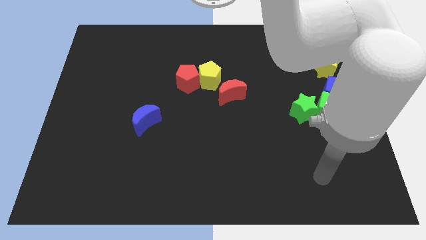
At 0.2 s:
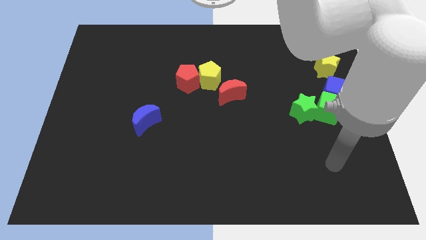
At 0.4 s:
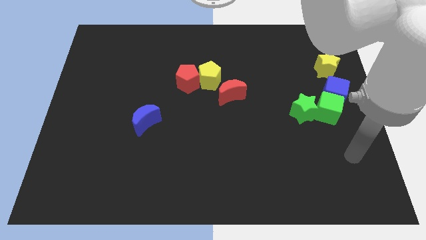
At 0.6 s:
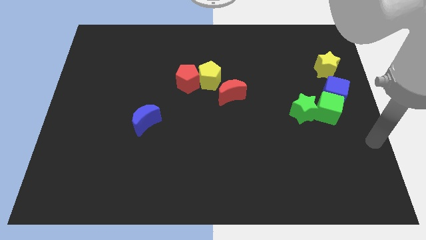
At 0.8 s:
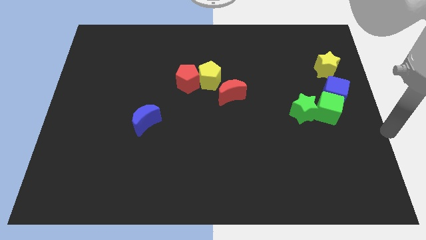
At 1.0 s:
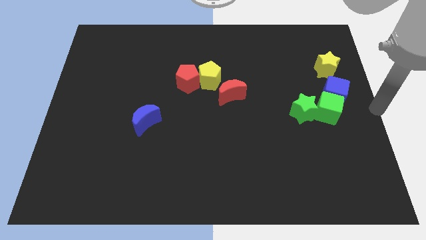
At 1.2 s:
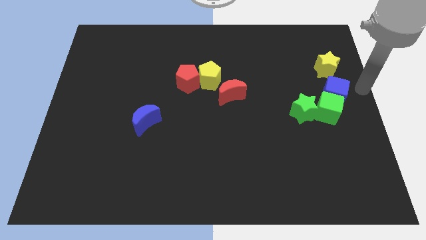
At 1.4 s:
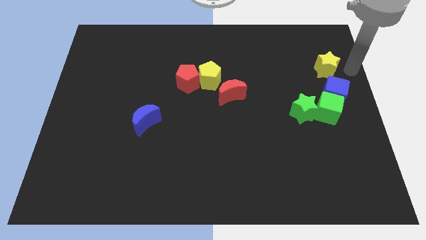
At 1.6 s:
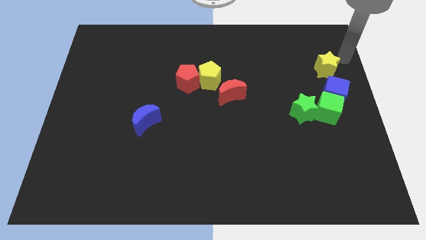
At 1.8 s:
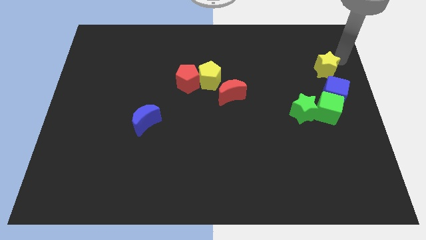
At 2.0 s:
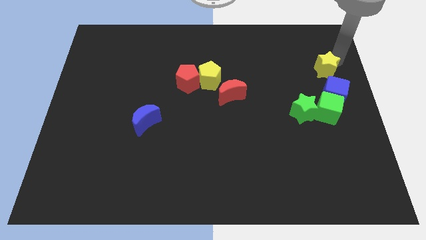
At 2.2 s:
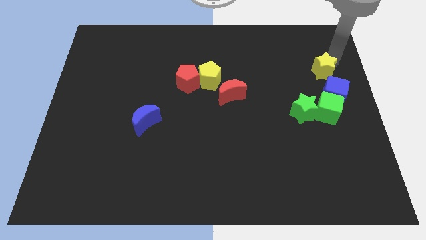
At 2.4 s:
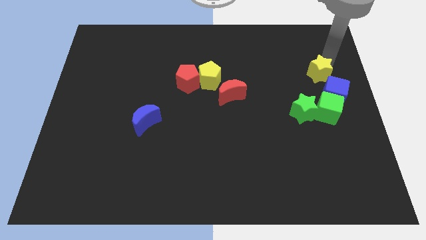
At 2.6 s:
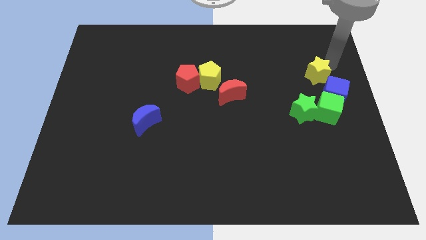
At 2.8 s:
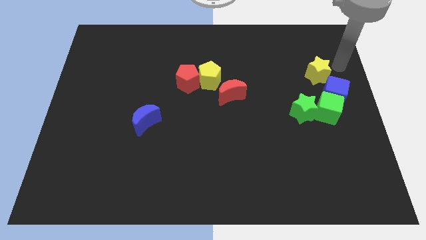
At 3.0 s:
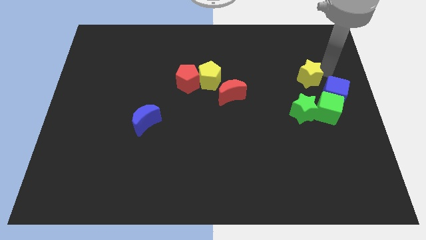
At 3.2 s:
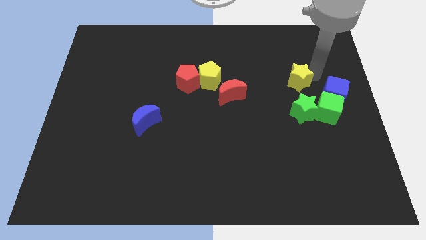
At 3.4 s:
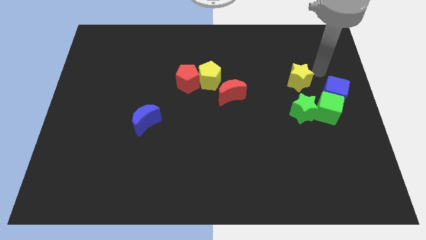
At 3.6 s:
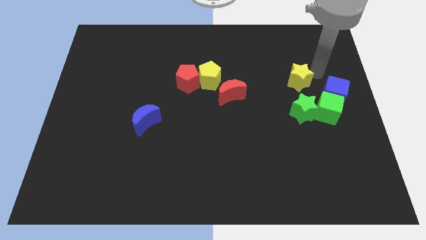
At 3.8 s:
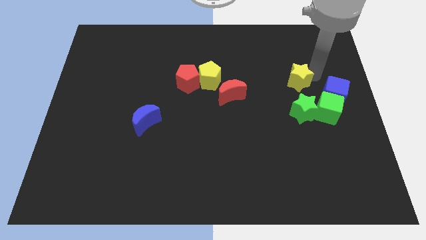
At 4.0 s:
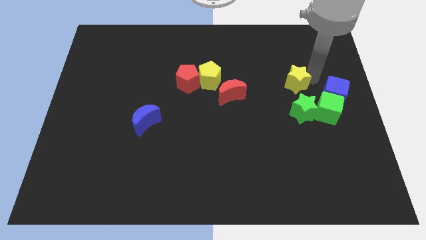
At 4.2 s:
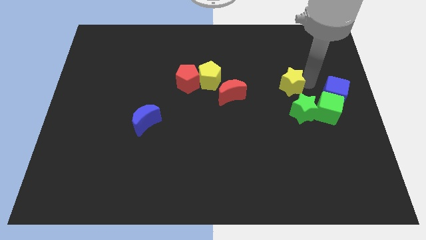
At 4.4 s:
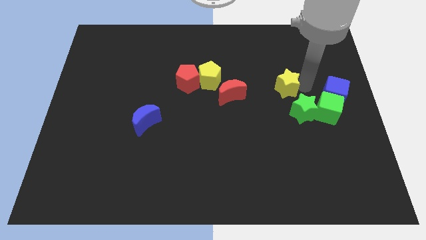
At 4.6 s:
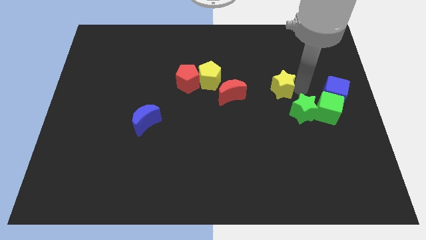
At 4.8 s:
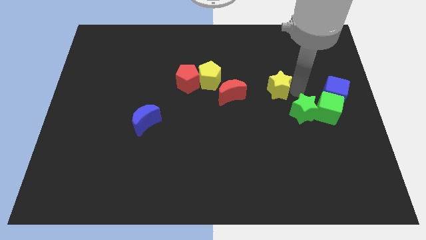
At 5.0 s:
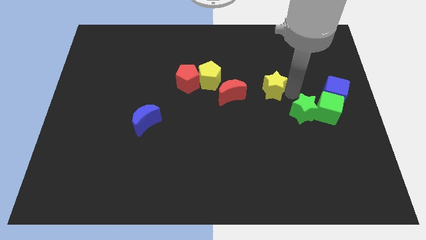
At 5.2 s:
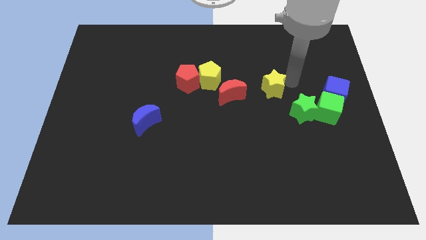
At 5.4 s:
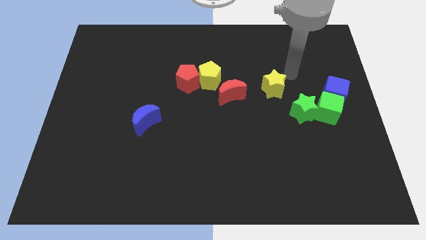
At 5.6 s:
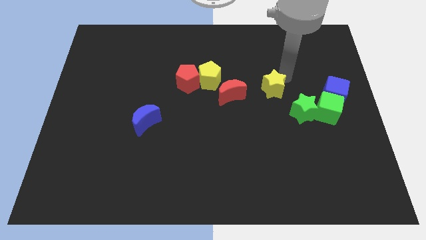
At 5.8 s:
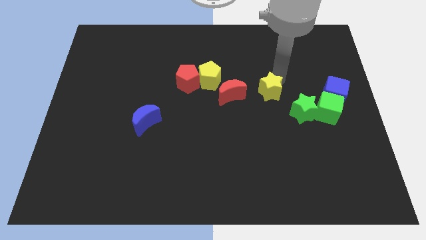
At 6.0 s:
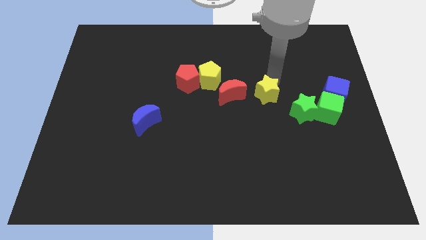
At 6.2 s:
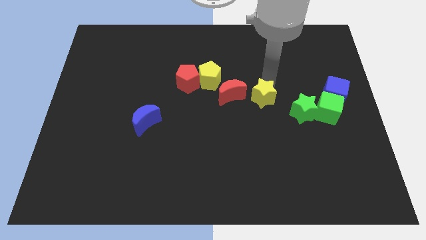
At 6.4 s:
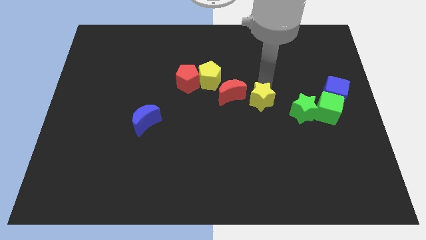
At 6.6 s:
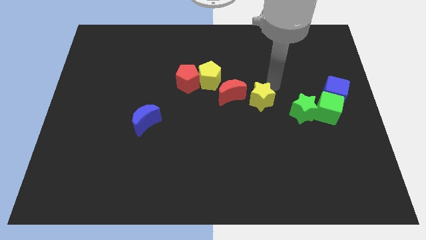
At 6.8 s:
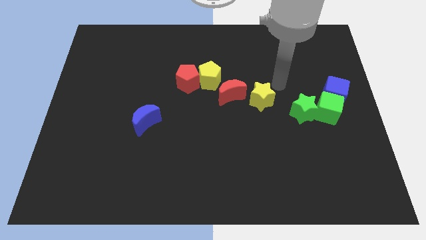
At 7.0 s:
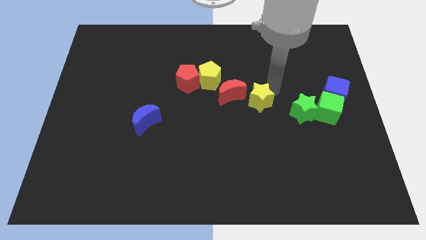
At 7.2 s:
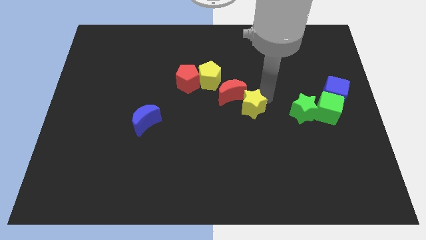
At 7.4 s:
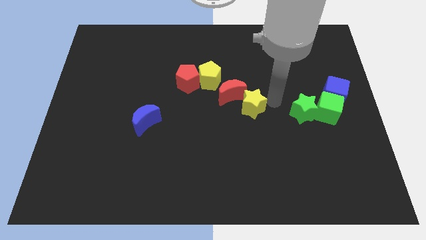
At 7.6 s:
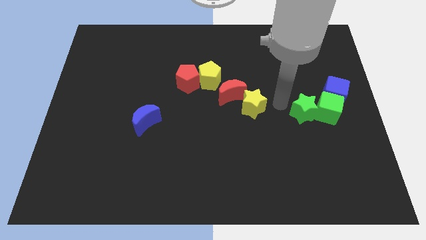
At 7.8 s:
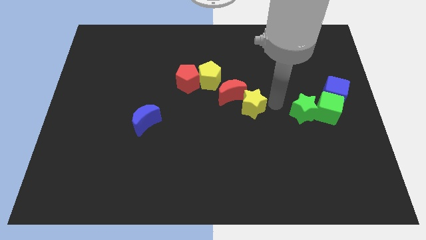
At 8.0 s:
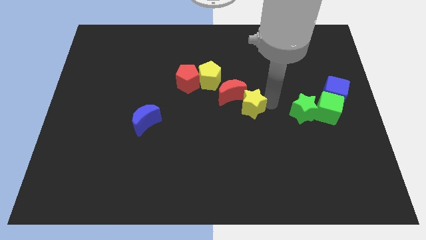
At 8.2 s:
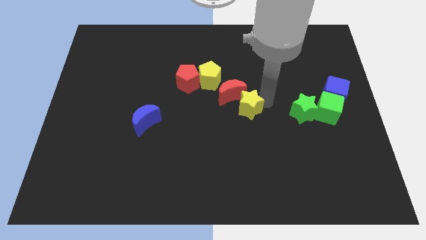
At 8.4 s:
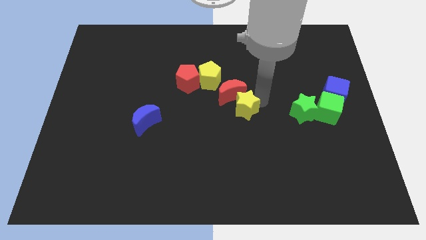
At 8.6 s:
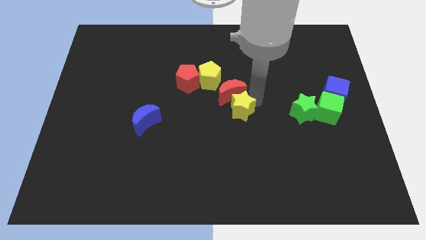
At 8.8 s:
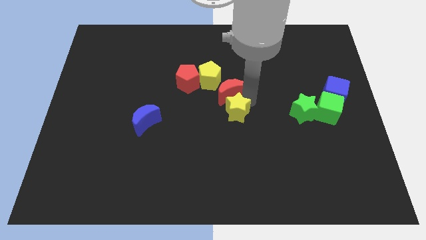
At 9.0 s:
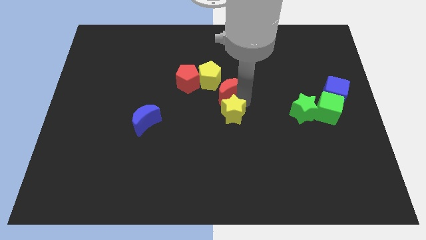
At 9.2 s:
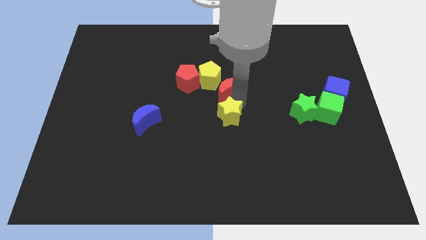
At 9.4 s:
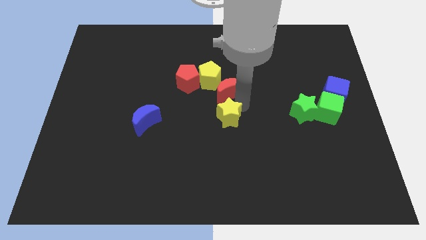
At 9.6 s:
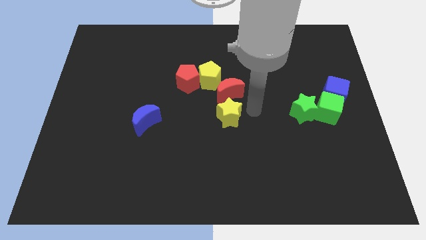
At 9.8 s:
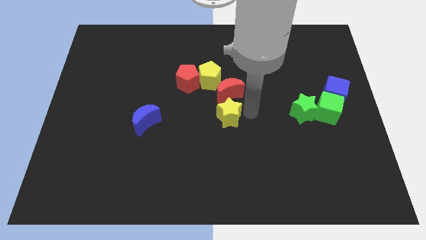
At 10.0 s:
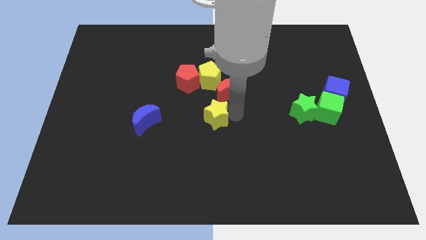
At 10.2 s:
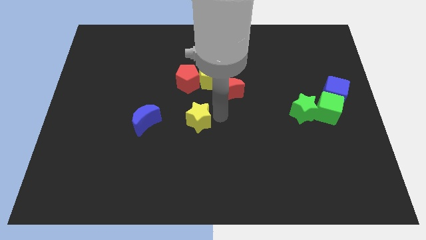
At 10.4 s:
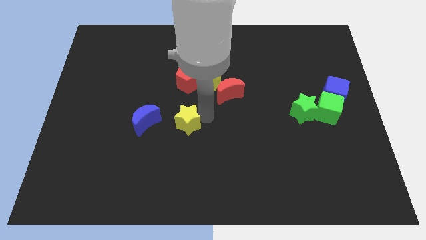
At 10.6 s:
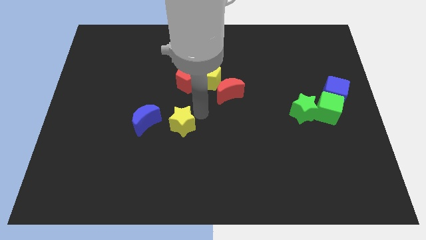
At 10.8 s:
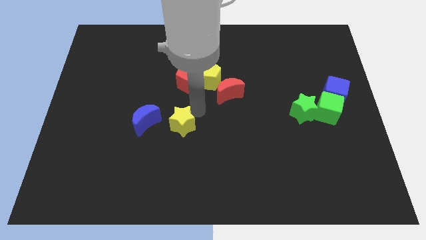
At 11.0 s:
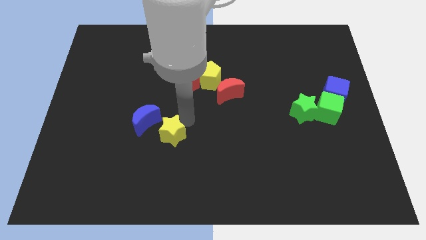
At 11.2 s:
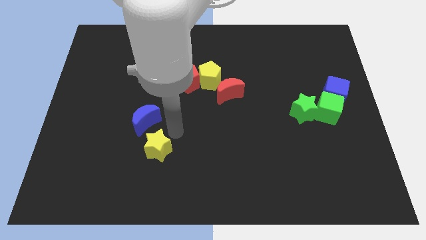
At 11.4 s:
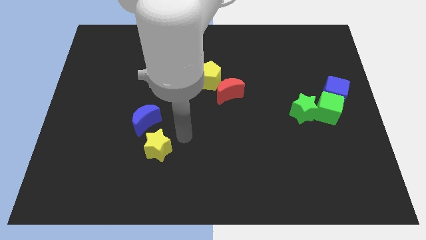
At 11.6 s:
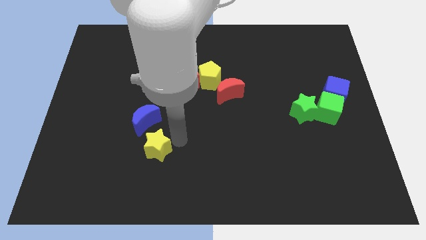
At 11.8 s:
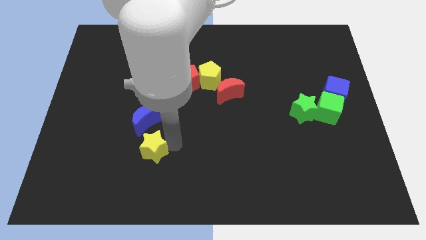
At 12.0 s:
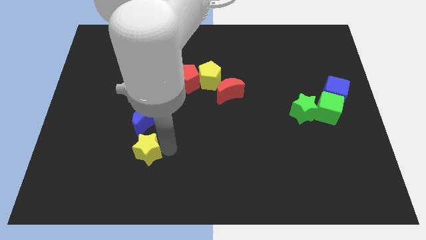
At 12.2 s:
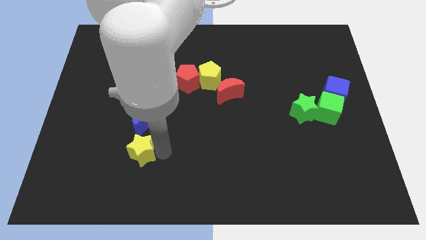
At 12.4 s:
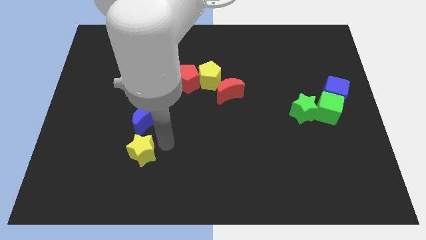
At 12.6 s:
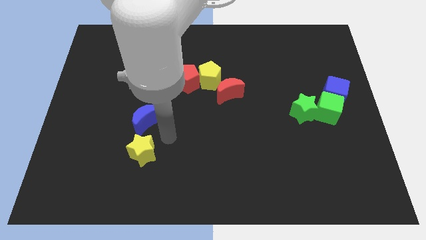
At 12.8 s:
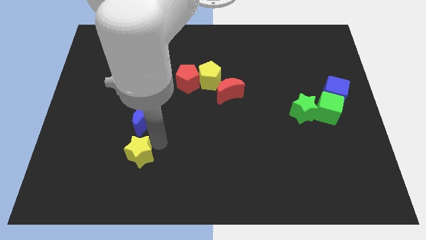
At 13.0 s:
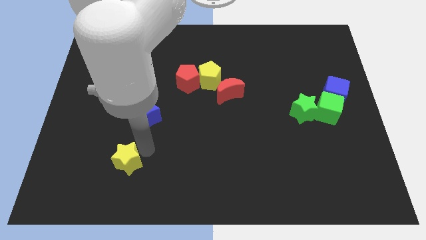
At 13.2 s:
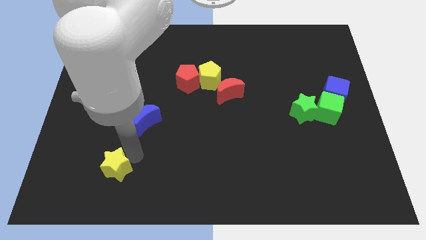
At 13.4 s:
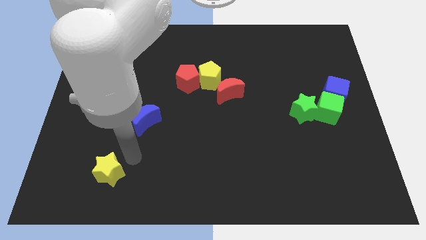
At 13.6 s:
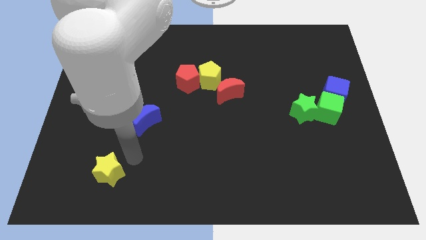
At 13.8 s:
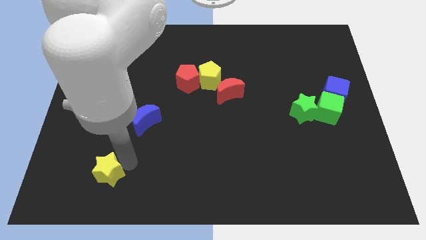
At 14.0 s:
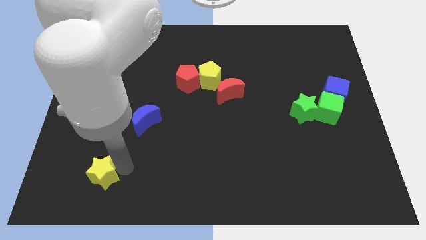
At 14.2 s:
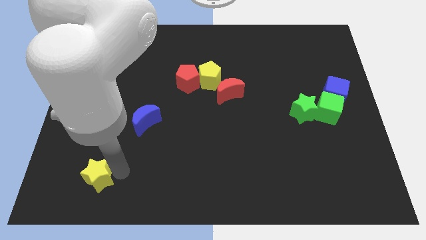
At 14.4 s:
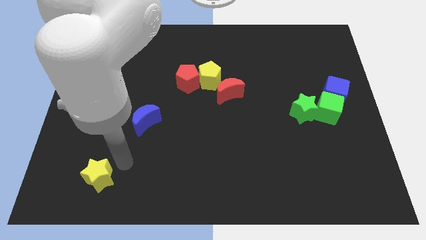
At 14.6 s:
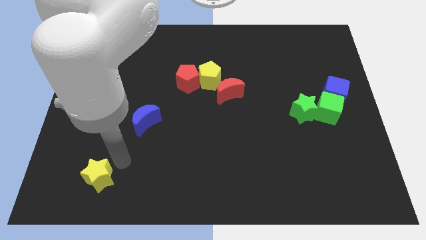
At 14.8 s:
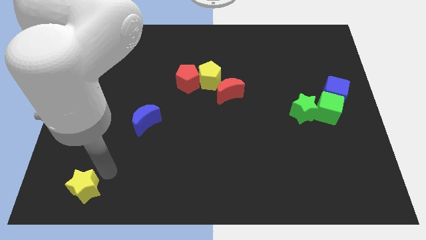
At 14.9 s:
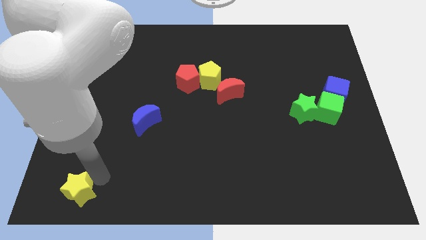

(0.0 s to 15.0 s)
put the yellow star to the lower left corner

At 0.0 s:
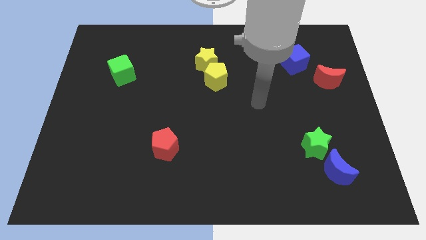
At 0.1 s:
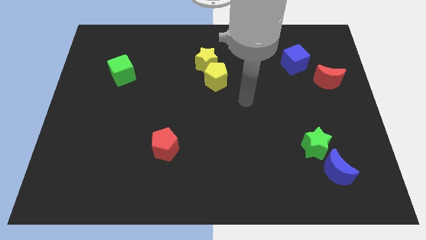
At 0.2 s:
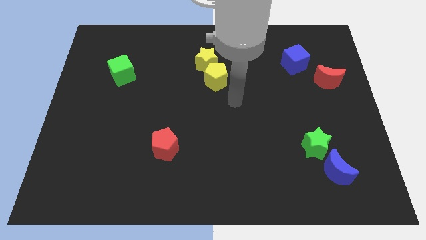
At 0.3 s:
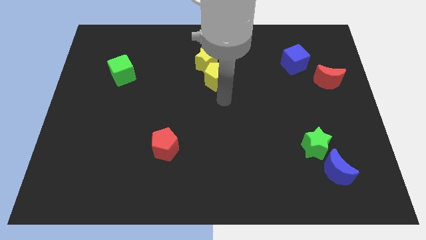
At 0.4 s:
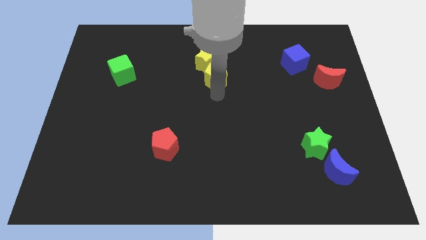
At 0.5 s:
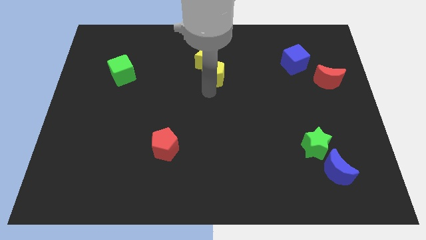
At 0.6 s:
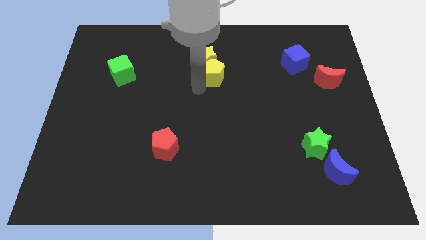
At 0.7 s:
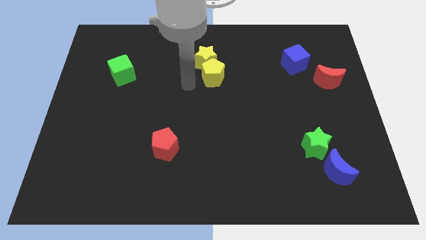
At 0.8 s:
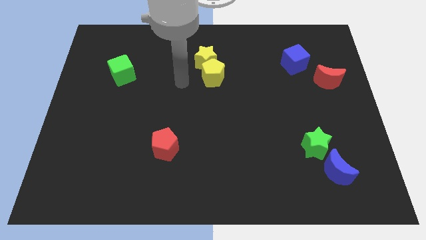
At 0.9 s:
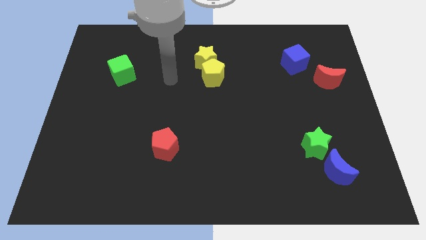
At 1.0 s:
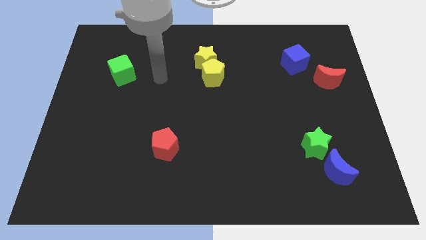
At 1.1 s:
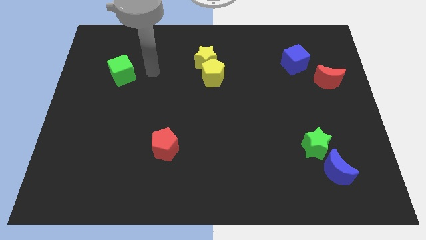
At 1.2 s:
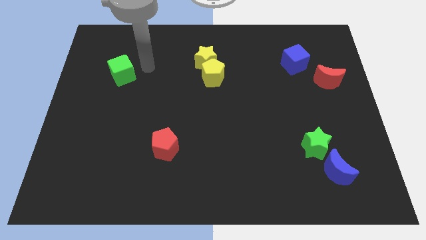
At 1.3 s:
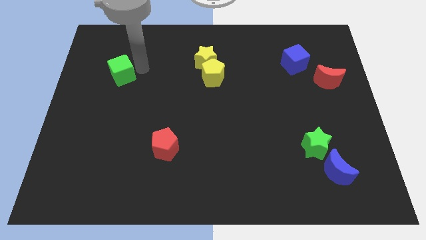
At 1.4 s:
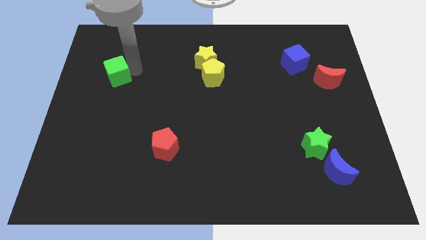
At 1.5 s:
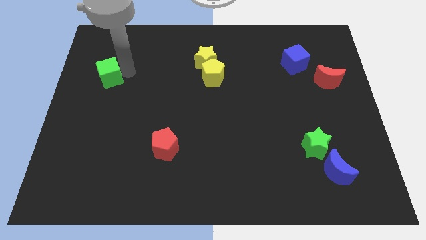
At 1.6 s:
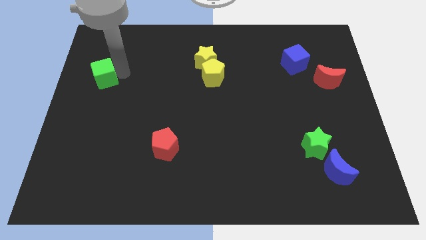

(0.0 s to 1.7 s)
move the green cube to the center left
